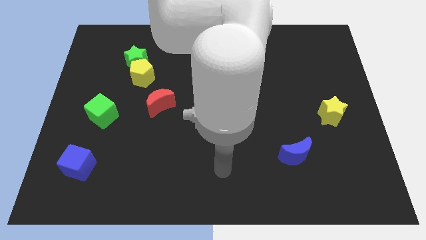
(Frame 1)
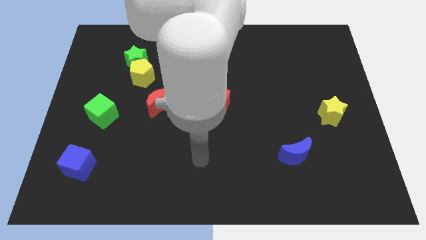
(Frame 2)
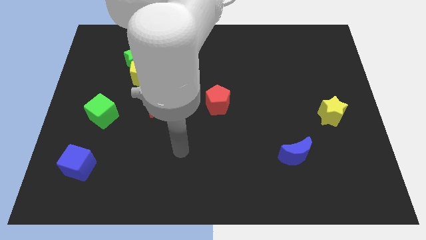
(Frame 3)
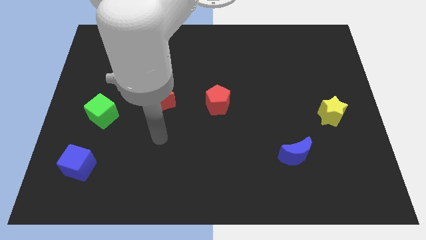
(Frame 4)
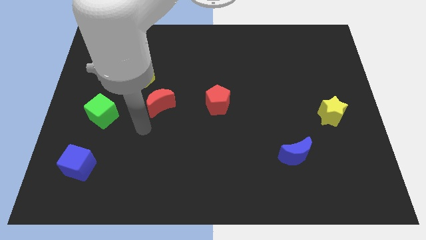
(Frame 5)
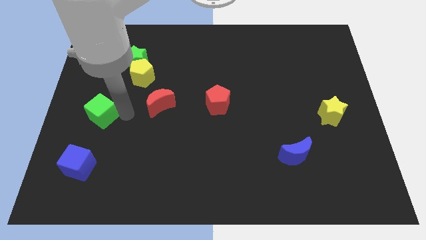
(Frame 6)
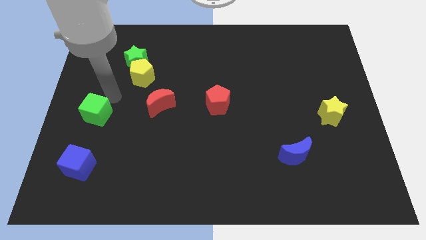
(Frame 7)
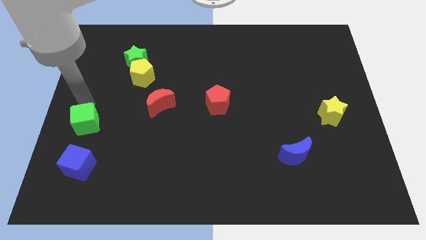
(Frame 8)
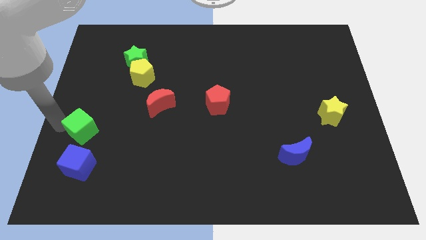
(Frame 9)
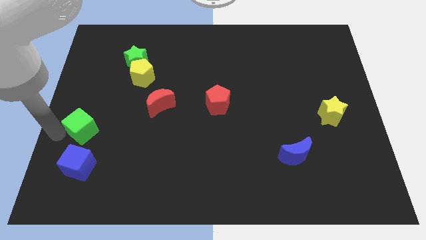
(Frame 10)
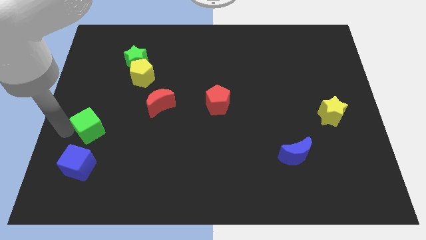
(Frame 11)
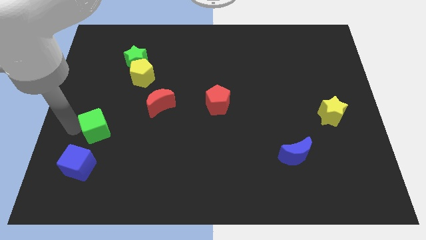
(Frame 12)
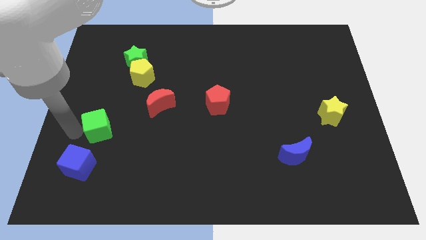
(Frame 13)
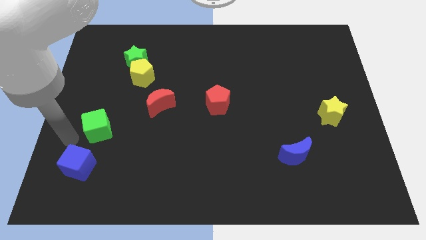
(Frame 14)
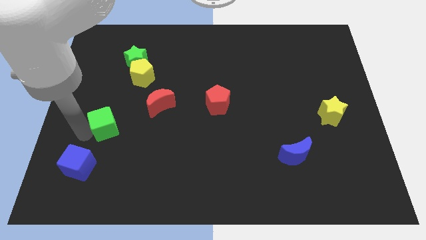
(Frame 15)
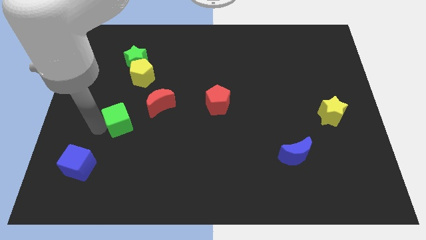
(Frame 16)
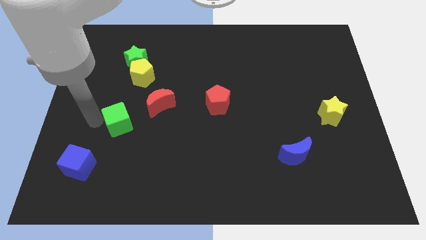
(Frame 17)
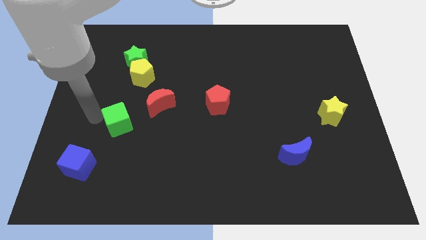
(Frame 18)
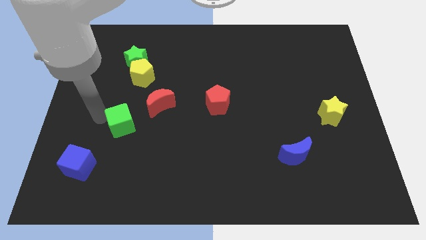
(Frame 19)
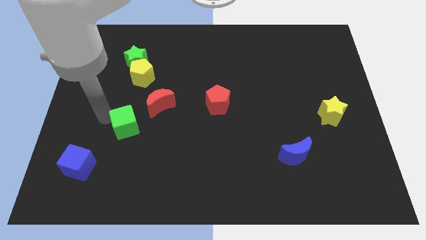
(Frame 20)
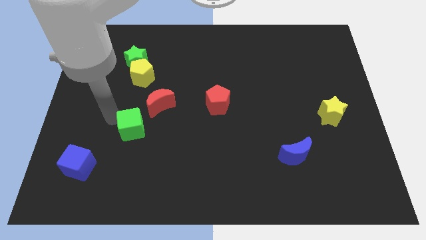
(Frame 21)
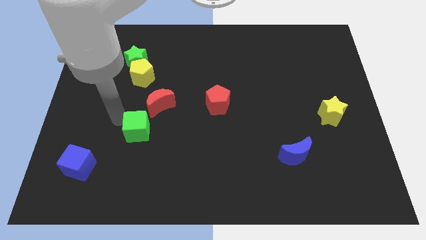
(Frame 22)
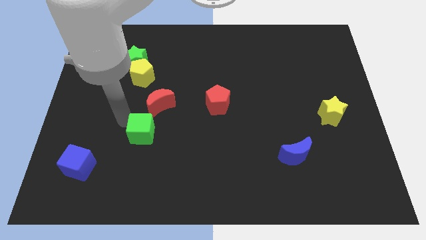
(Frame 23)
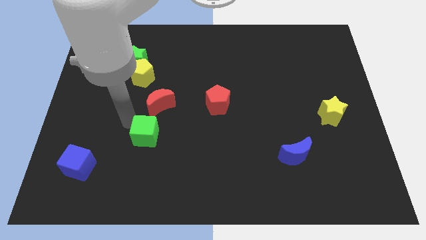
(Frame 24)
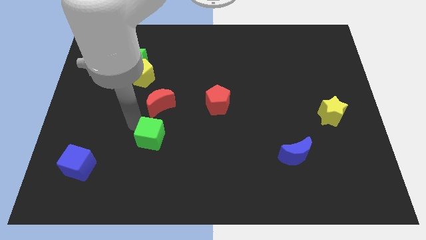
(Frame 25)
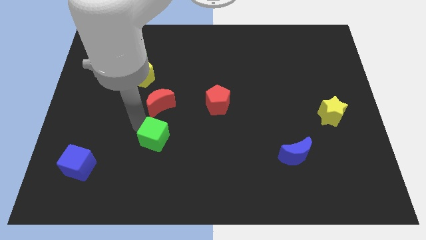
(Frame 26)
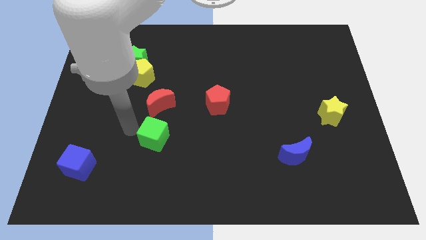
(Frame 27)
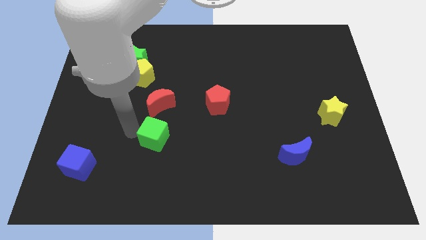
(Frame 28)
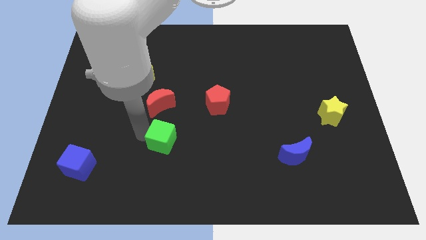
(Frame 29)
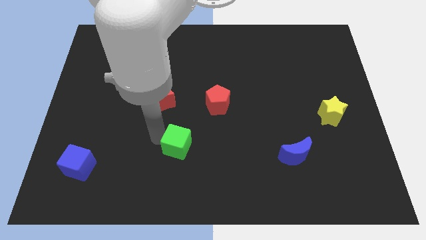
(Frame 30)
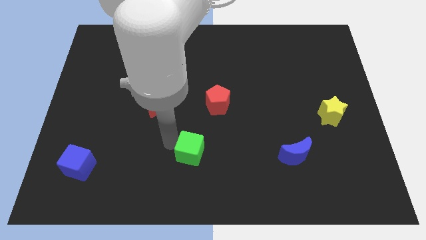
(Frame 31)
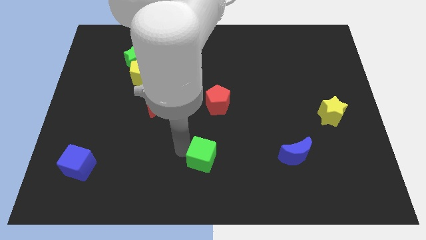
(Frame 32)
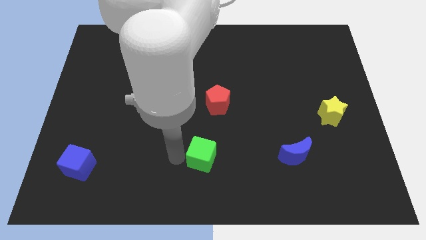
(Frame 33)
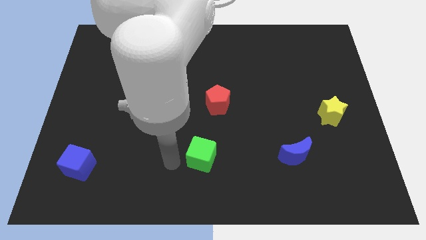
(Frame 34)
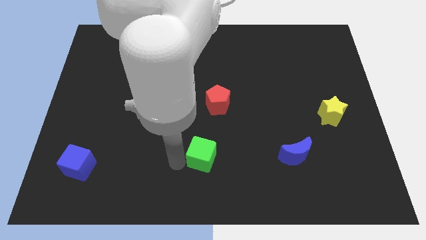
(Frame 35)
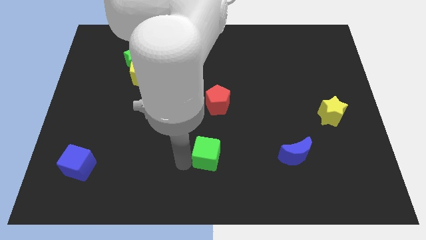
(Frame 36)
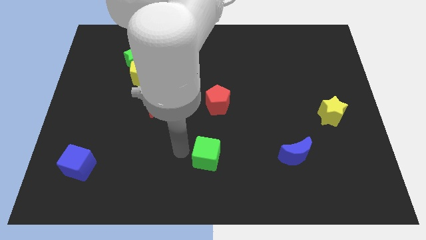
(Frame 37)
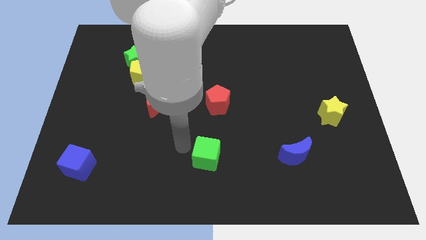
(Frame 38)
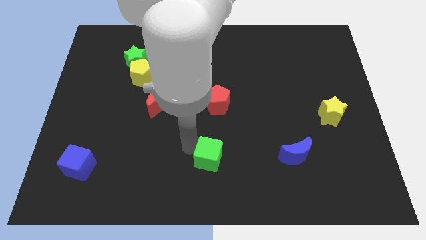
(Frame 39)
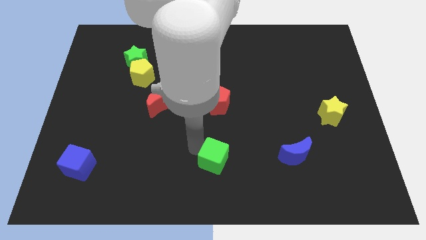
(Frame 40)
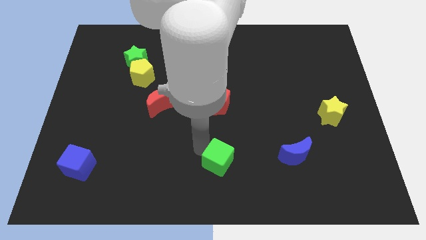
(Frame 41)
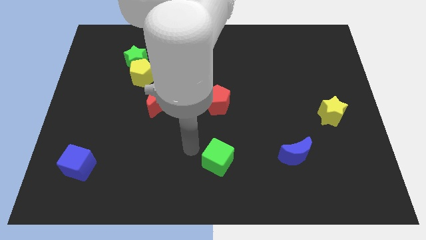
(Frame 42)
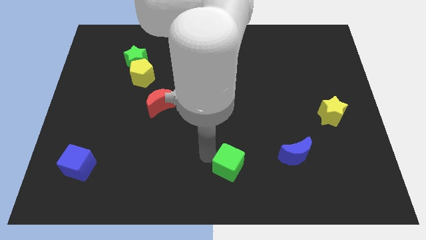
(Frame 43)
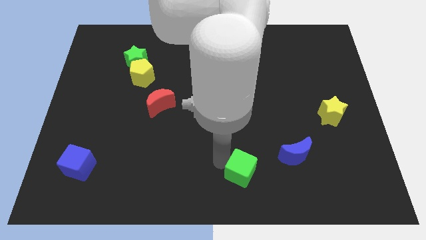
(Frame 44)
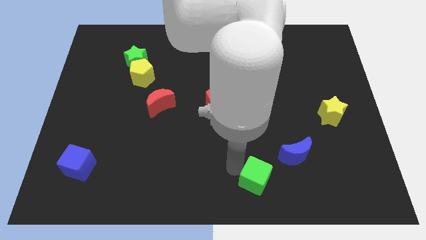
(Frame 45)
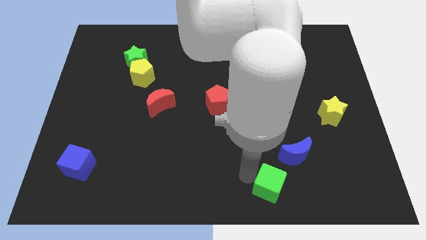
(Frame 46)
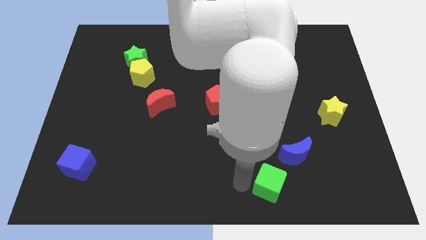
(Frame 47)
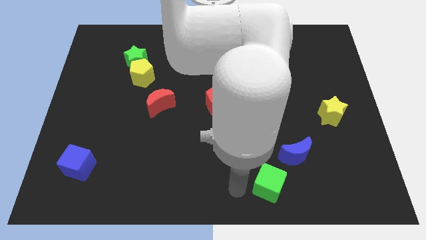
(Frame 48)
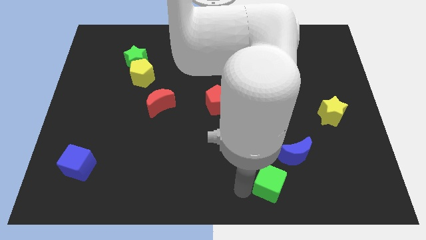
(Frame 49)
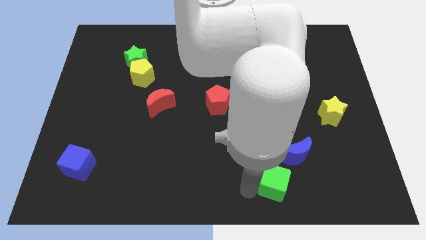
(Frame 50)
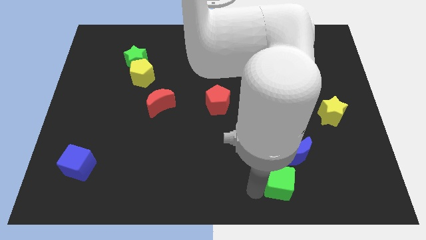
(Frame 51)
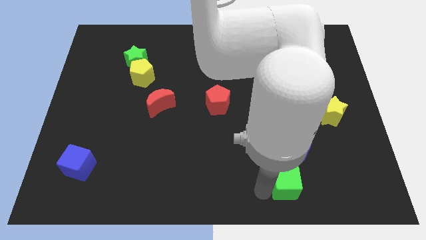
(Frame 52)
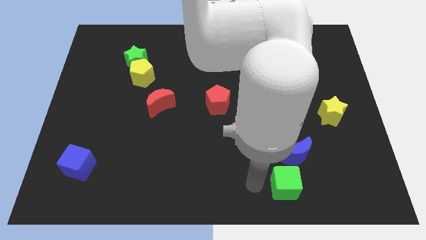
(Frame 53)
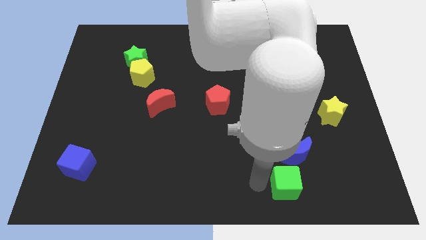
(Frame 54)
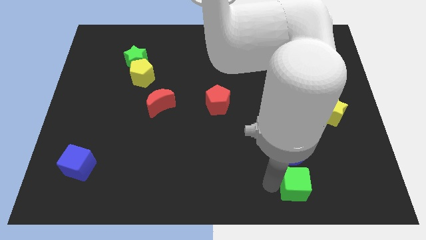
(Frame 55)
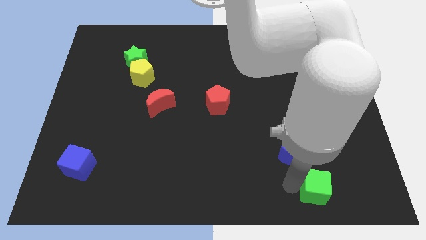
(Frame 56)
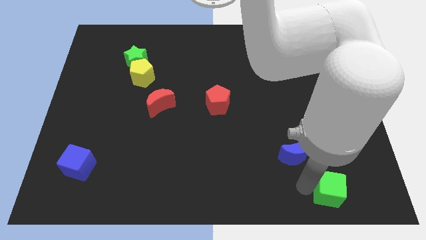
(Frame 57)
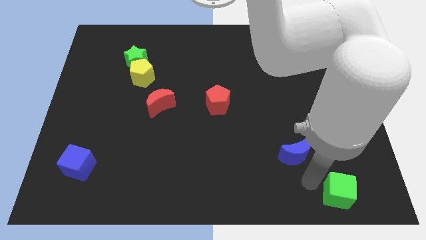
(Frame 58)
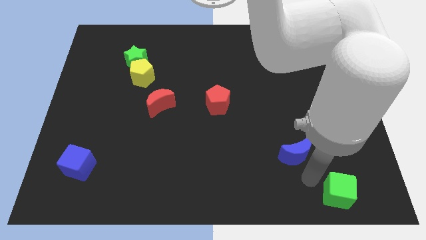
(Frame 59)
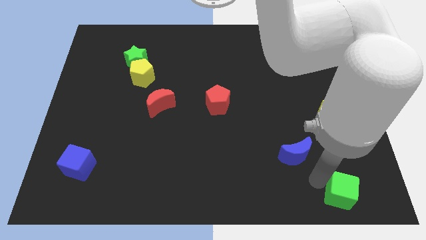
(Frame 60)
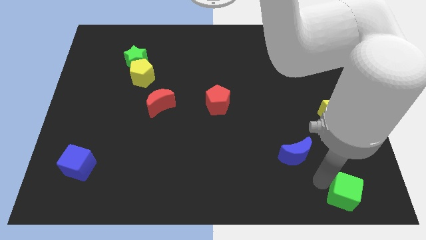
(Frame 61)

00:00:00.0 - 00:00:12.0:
put the green cube to the bottom right
